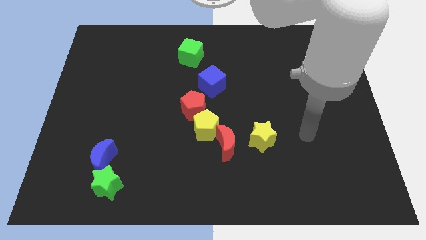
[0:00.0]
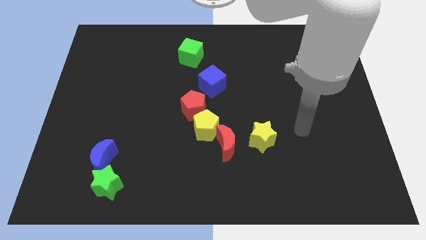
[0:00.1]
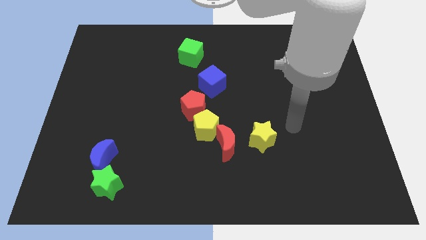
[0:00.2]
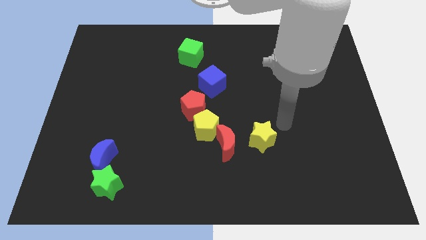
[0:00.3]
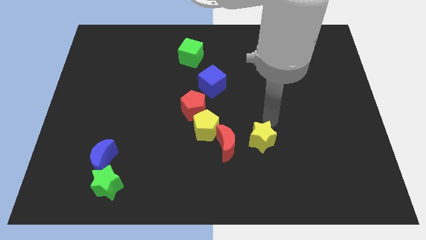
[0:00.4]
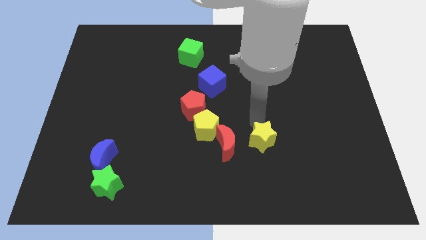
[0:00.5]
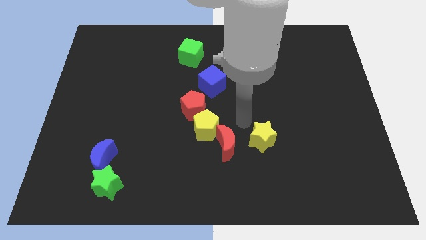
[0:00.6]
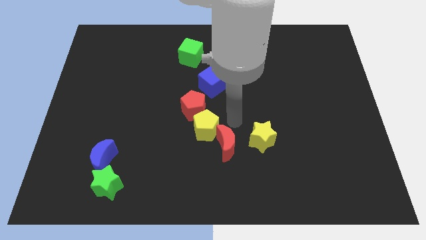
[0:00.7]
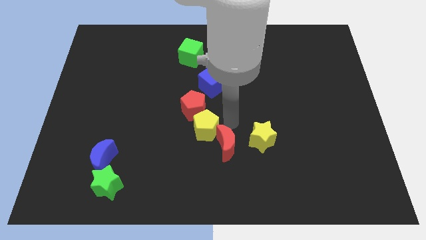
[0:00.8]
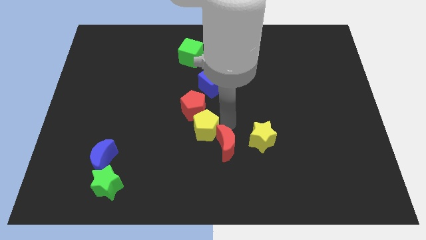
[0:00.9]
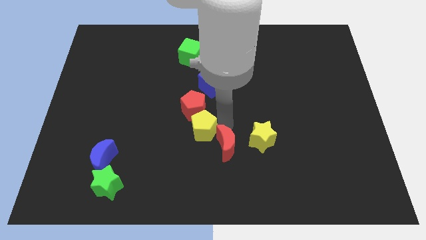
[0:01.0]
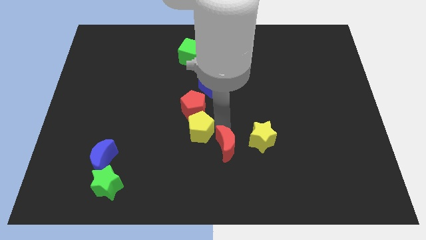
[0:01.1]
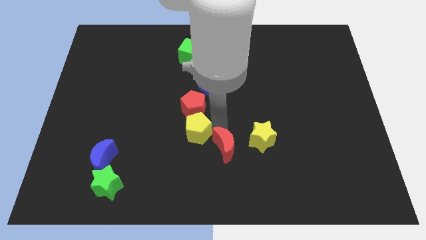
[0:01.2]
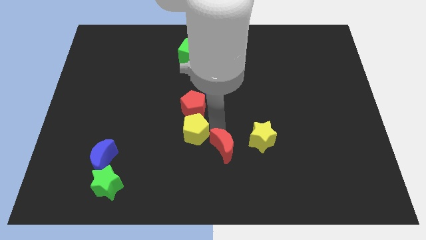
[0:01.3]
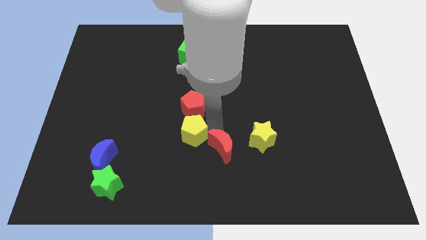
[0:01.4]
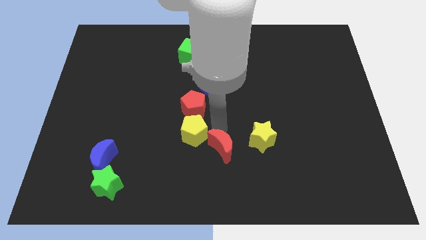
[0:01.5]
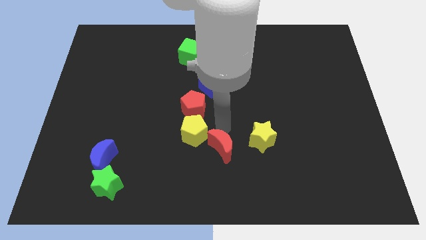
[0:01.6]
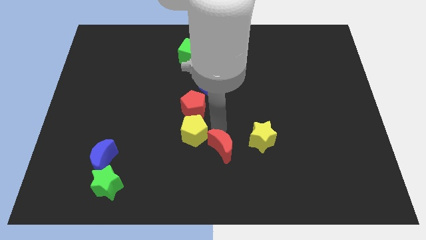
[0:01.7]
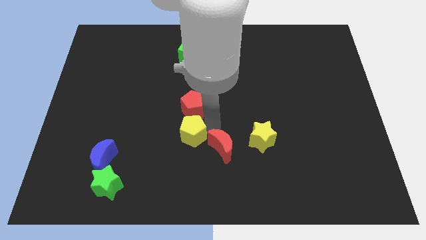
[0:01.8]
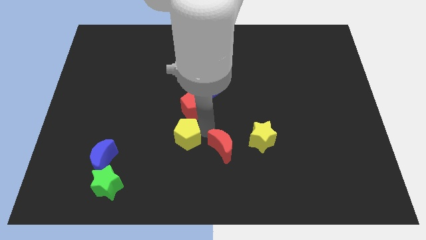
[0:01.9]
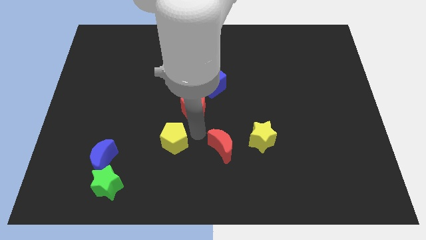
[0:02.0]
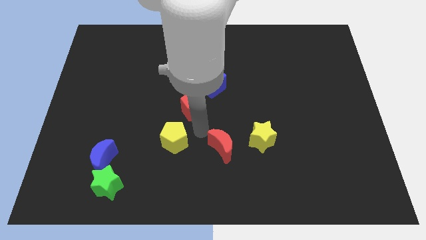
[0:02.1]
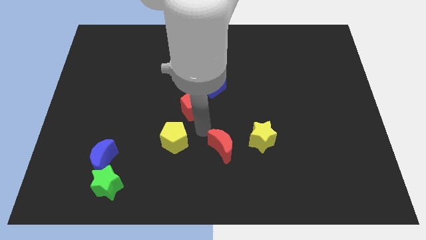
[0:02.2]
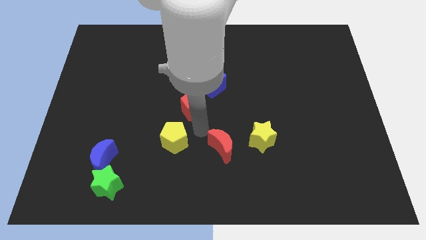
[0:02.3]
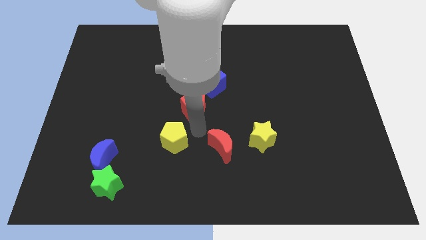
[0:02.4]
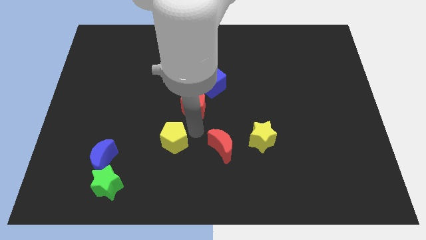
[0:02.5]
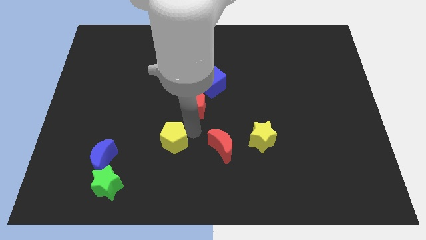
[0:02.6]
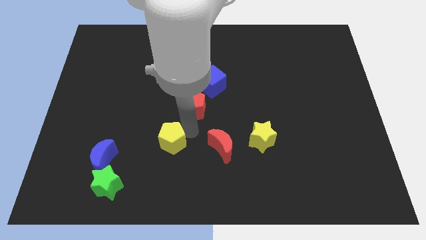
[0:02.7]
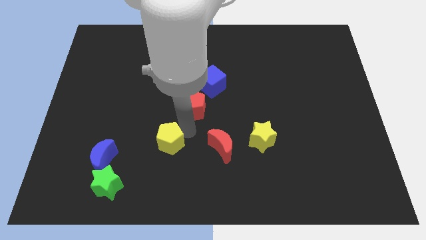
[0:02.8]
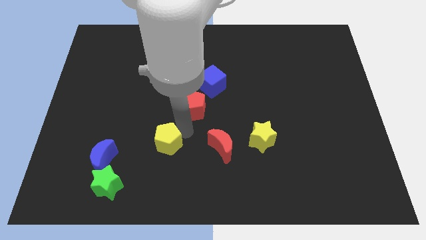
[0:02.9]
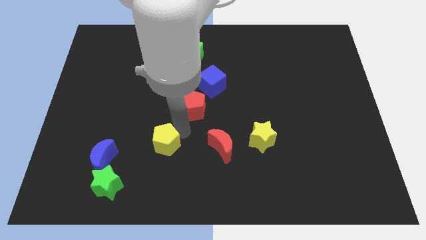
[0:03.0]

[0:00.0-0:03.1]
separate the yellow pentagon from the red pentagon and red moon

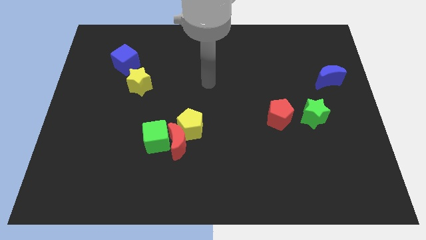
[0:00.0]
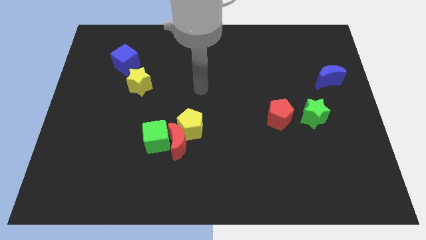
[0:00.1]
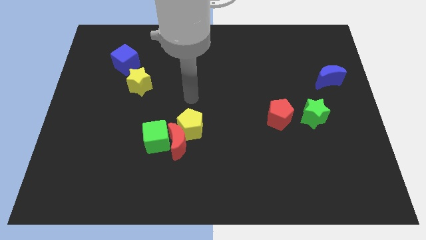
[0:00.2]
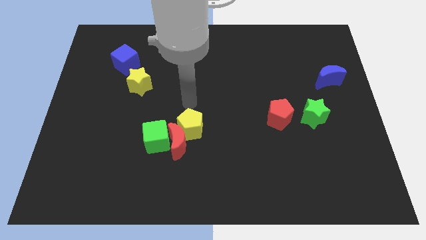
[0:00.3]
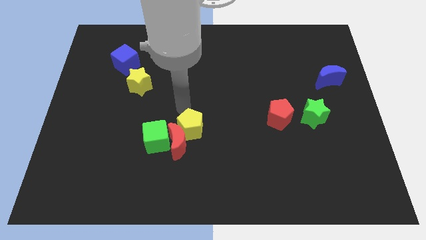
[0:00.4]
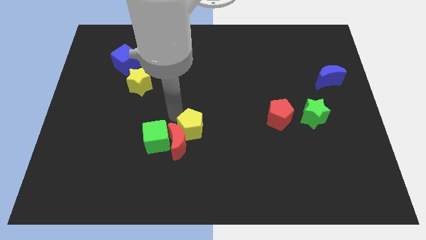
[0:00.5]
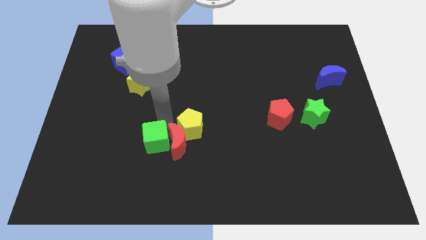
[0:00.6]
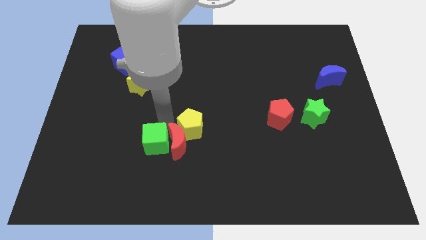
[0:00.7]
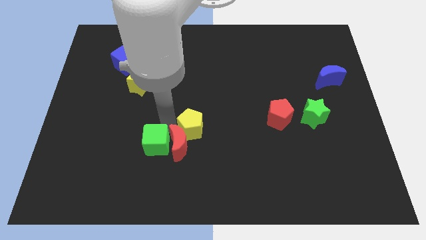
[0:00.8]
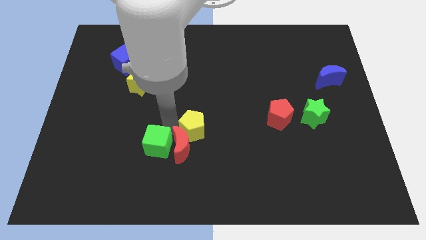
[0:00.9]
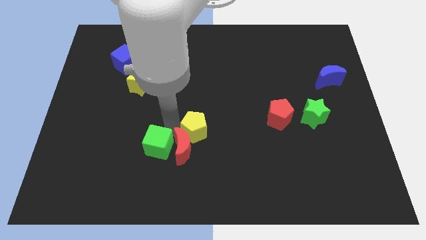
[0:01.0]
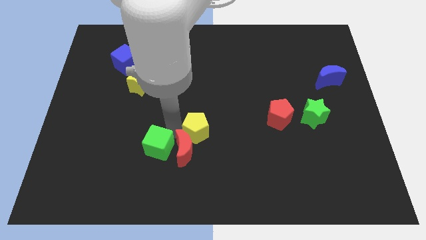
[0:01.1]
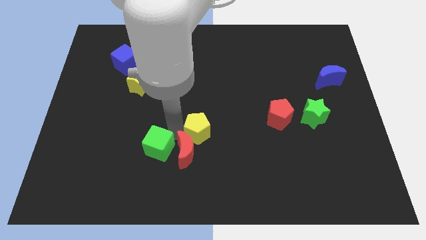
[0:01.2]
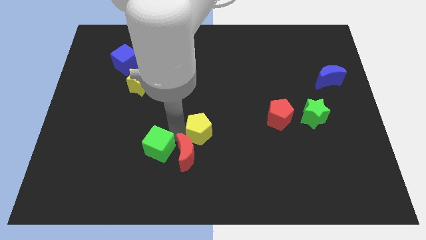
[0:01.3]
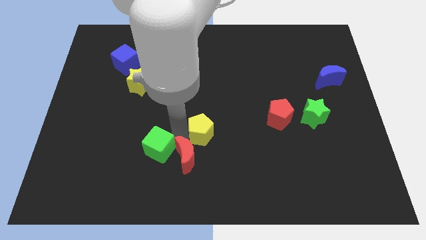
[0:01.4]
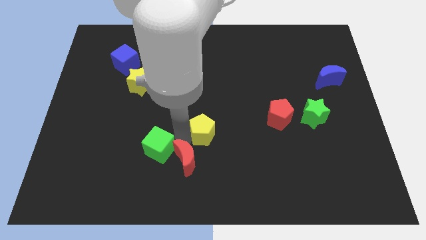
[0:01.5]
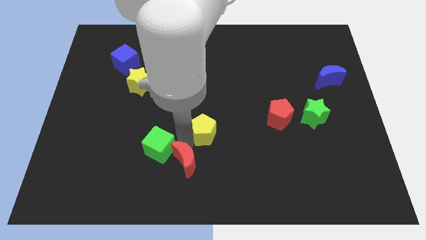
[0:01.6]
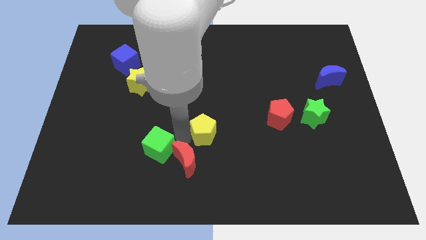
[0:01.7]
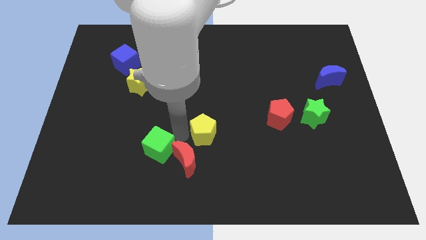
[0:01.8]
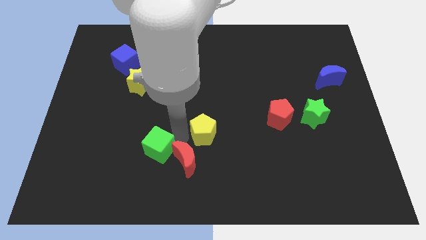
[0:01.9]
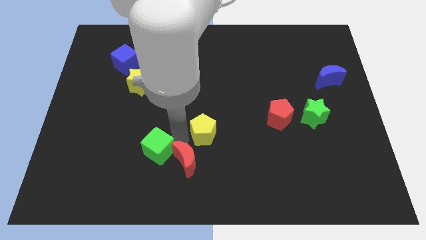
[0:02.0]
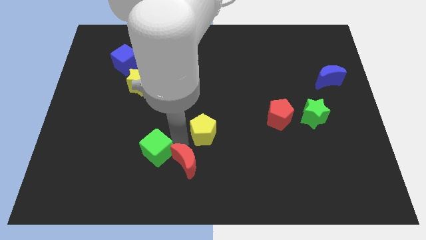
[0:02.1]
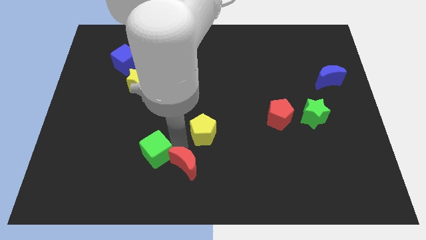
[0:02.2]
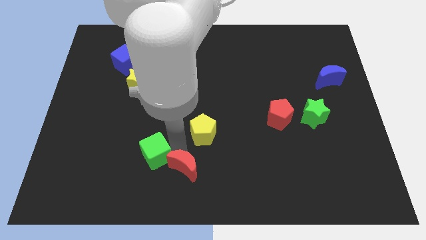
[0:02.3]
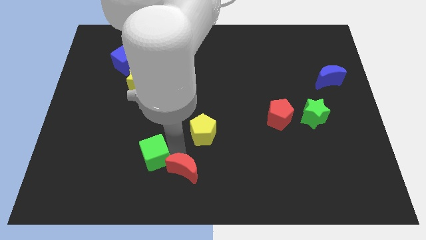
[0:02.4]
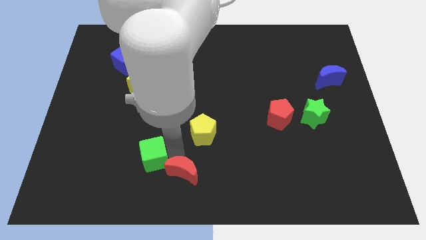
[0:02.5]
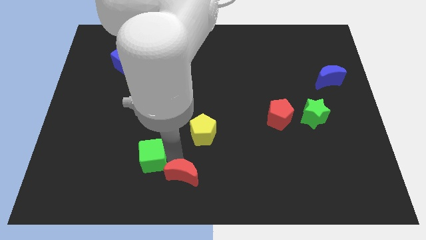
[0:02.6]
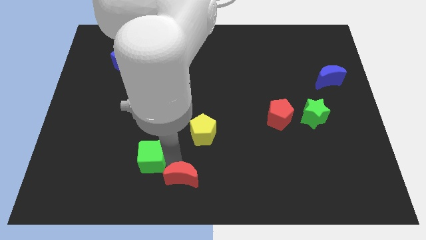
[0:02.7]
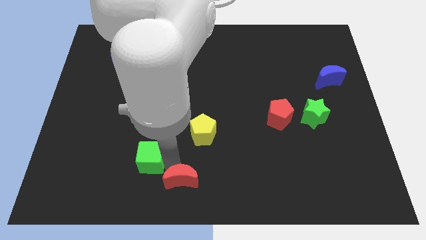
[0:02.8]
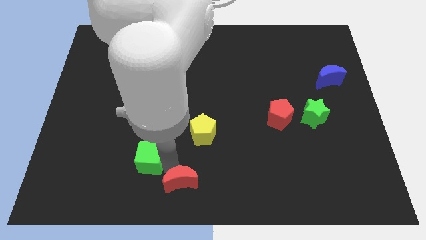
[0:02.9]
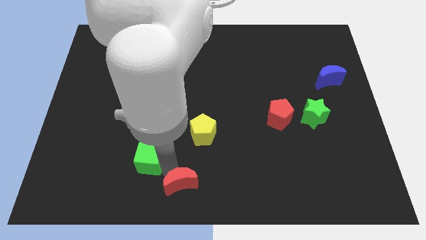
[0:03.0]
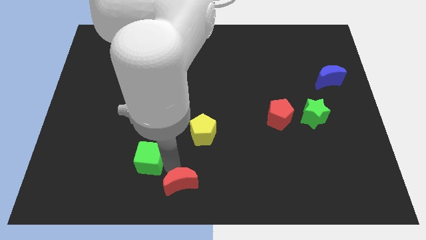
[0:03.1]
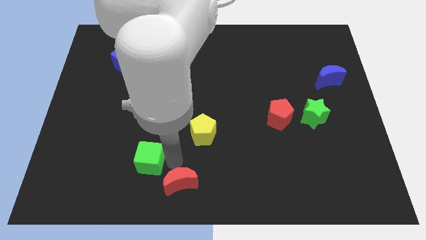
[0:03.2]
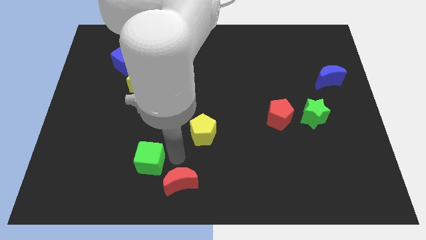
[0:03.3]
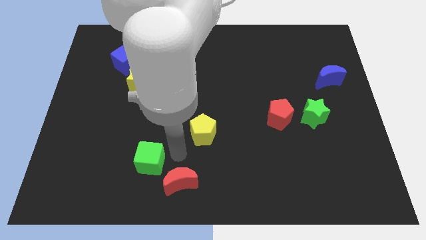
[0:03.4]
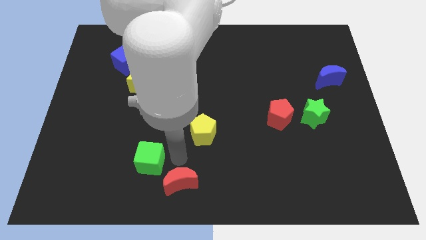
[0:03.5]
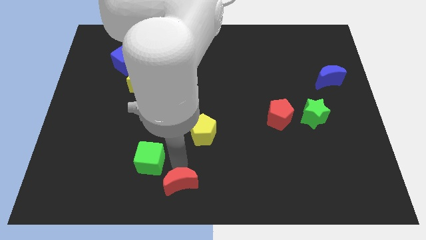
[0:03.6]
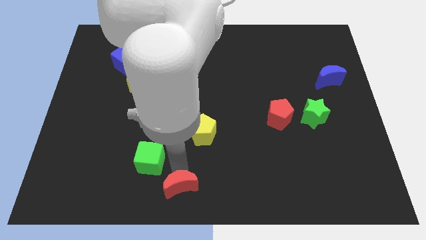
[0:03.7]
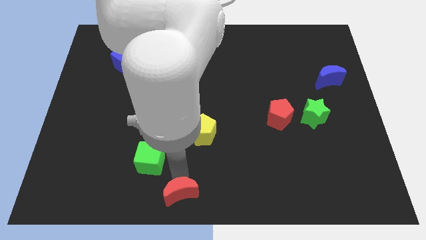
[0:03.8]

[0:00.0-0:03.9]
move the red moon away from the green cube and yellow pentagon

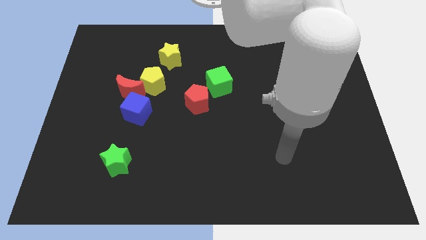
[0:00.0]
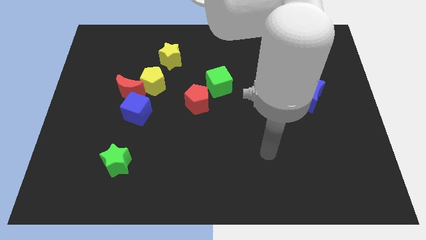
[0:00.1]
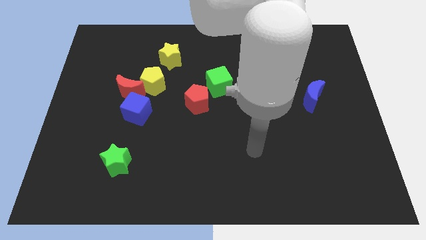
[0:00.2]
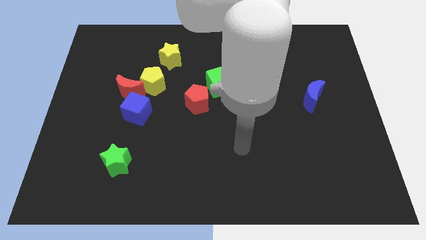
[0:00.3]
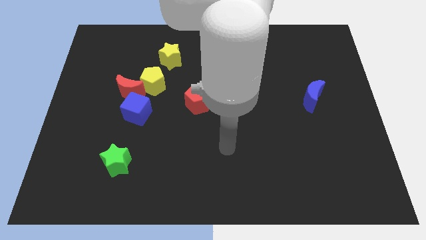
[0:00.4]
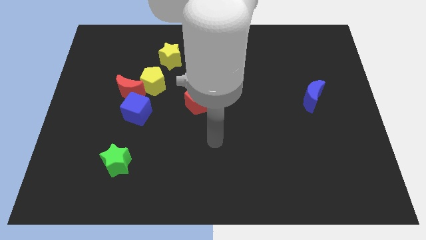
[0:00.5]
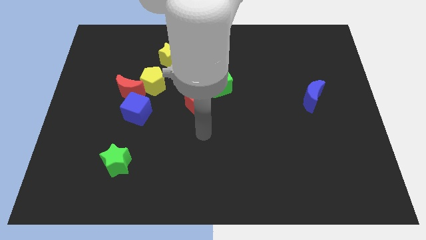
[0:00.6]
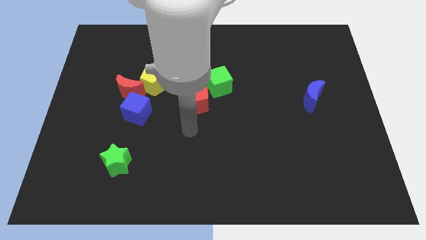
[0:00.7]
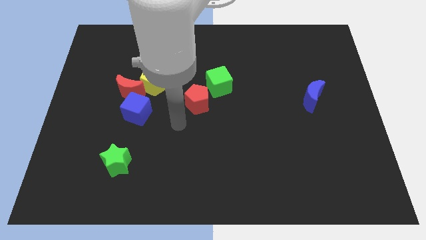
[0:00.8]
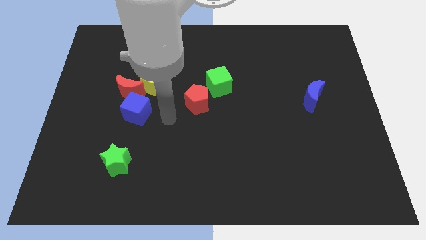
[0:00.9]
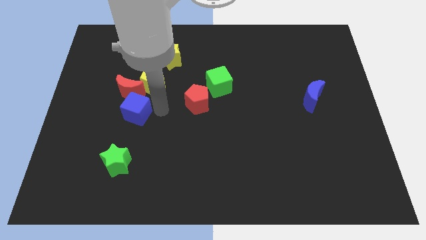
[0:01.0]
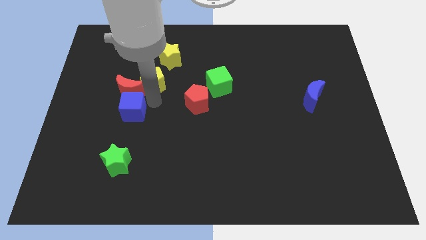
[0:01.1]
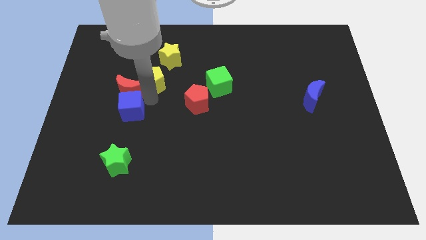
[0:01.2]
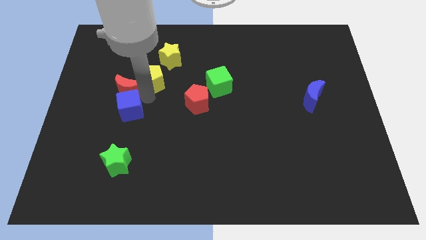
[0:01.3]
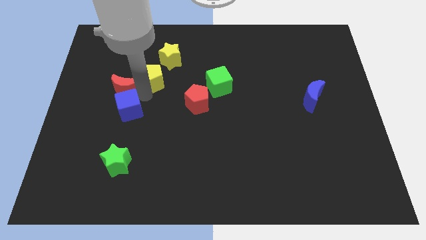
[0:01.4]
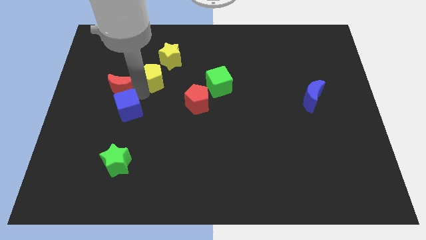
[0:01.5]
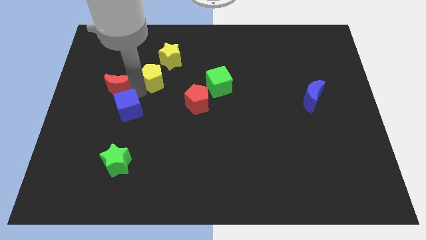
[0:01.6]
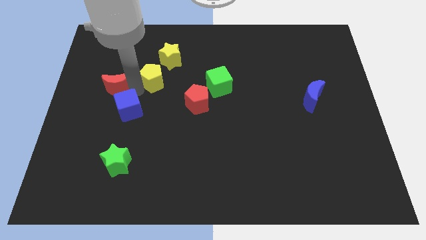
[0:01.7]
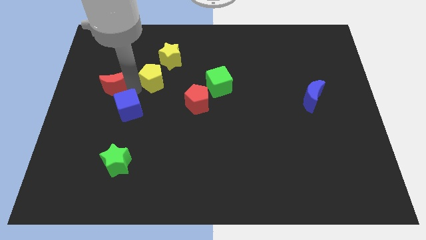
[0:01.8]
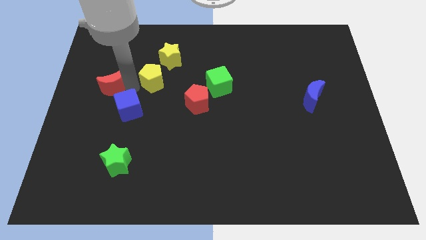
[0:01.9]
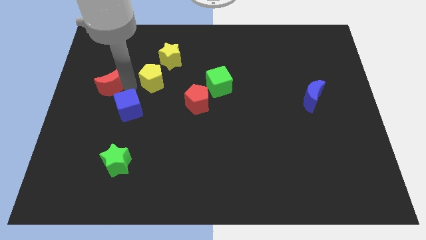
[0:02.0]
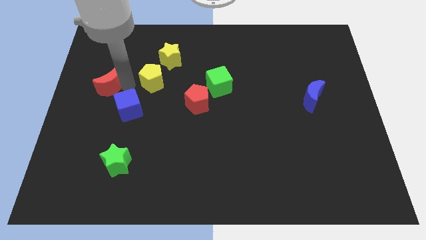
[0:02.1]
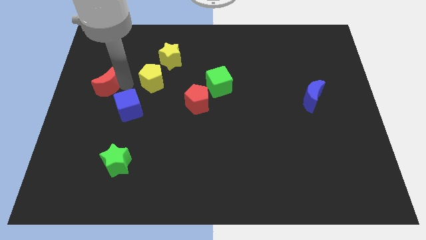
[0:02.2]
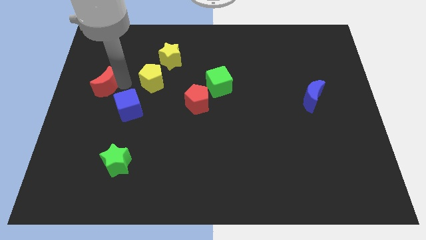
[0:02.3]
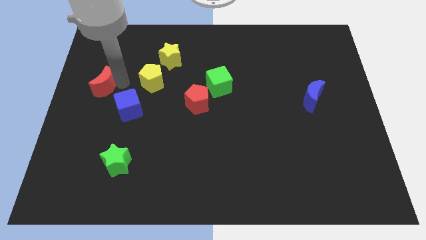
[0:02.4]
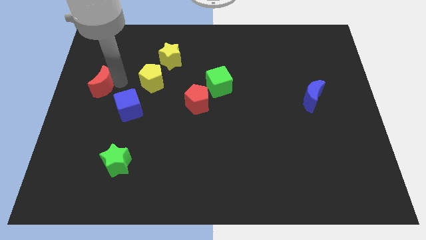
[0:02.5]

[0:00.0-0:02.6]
pull the red moon apart from the yellow pentagon and blue cube
